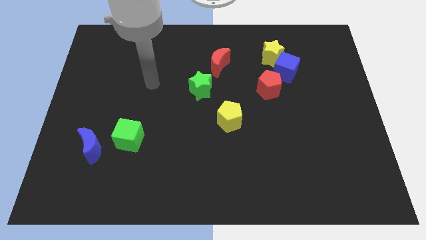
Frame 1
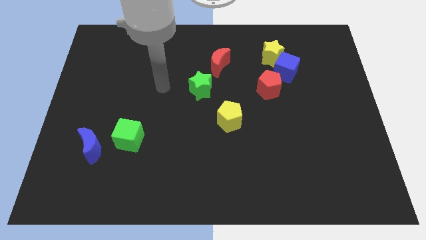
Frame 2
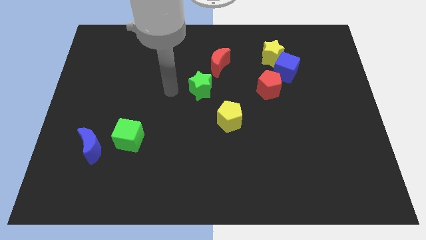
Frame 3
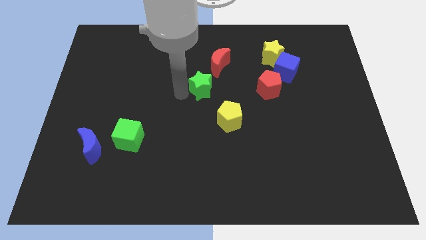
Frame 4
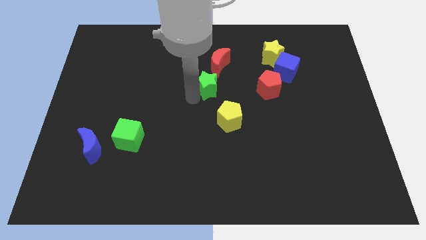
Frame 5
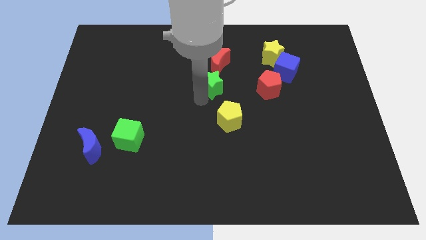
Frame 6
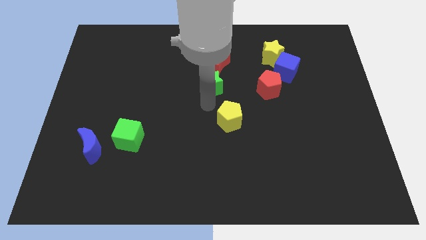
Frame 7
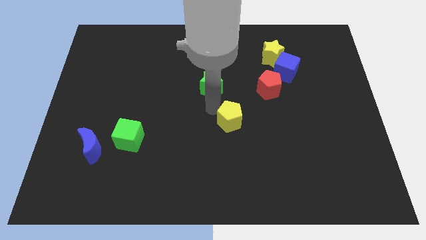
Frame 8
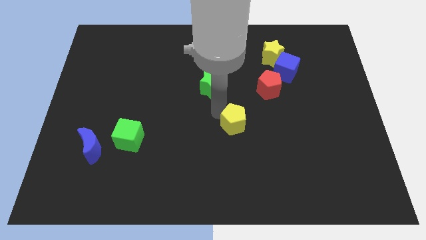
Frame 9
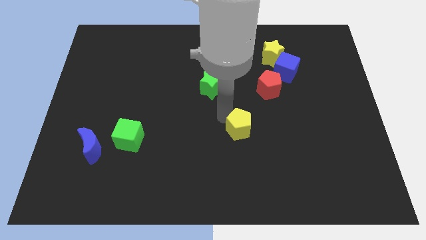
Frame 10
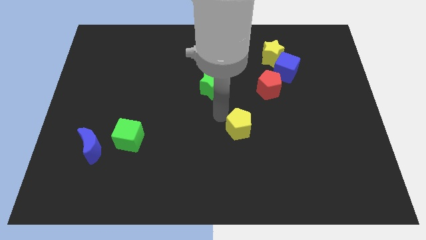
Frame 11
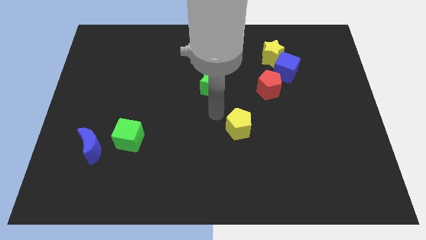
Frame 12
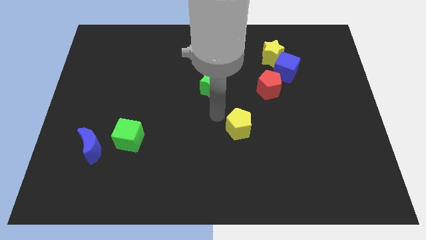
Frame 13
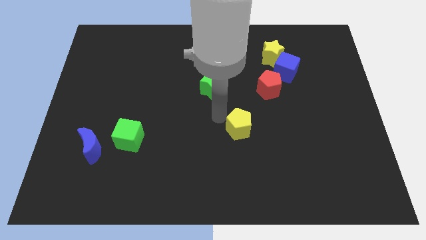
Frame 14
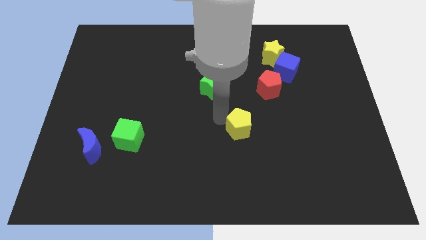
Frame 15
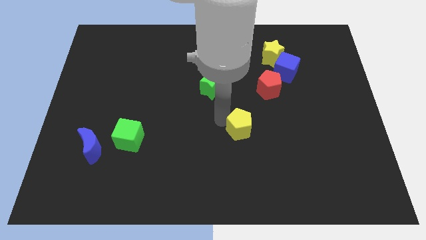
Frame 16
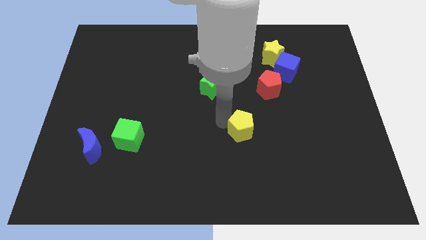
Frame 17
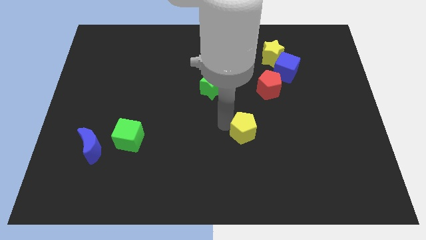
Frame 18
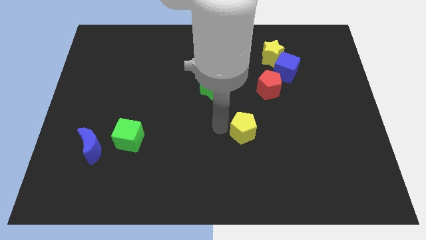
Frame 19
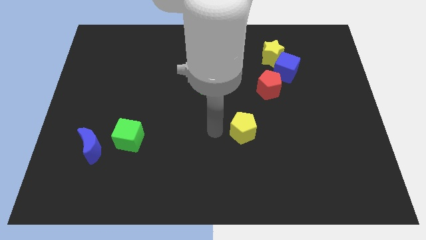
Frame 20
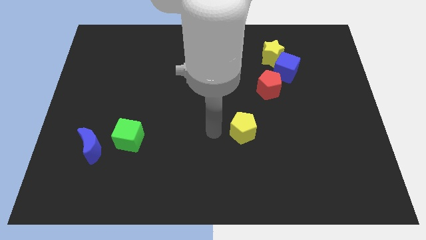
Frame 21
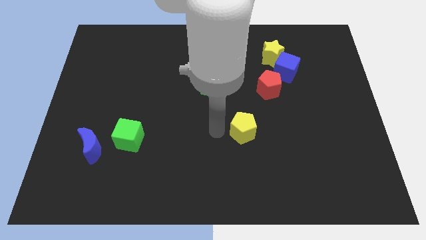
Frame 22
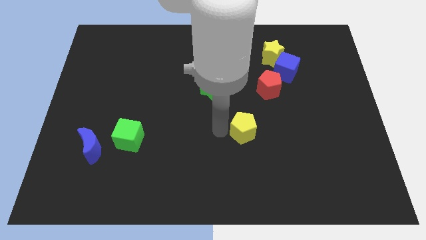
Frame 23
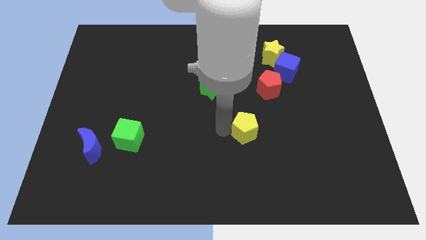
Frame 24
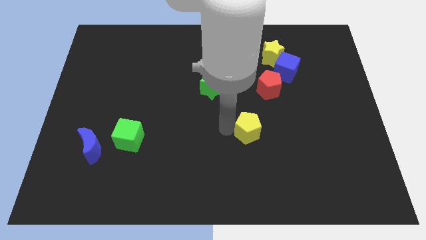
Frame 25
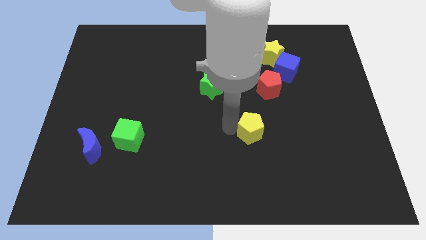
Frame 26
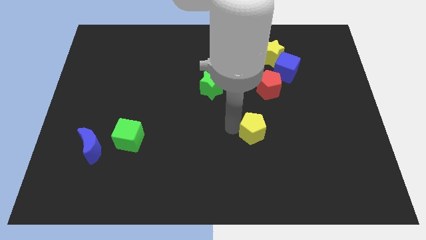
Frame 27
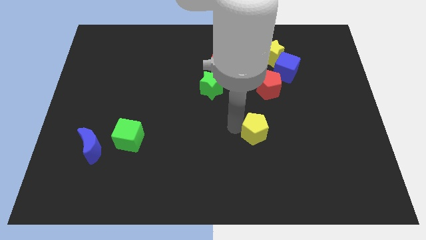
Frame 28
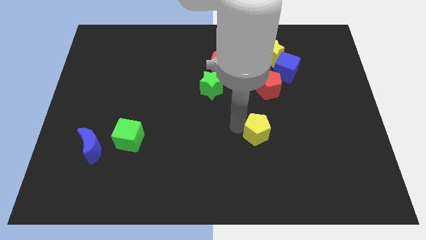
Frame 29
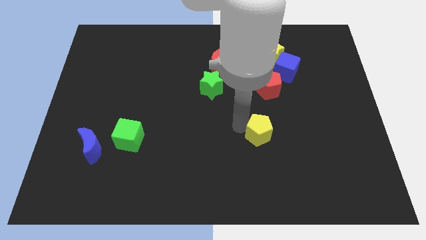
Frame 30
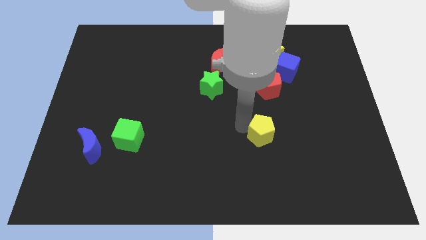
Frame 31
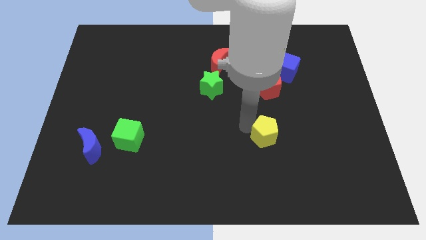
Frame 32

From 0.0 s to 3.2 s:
move the yellow pentagon a bit to the right

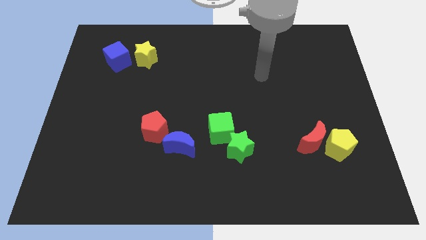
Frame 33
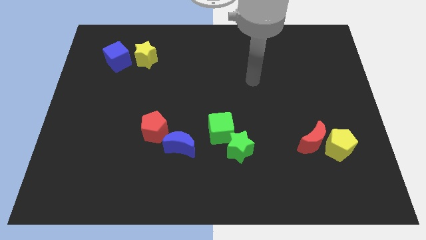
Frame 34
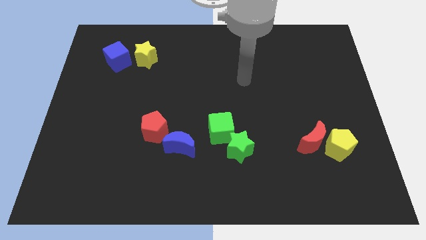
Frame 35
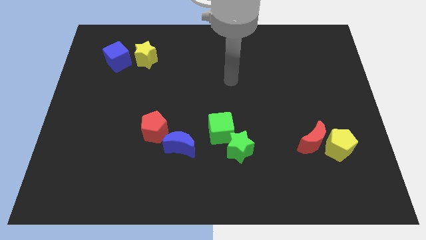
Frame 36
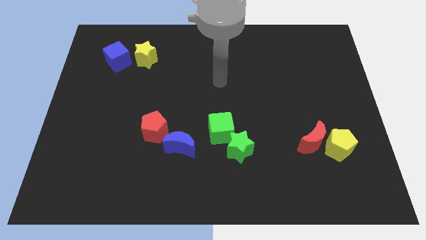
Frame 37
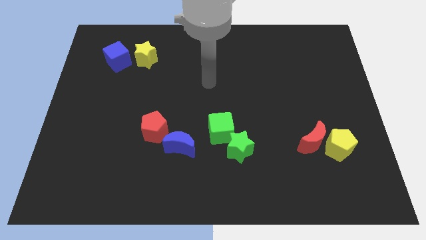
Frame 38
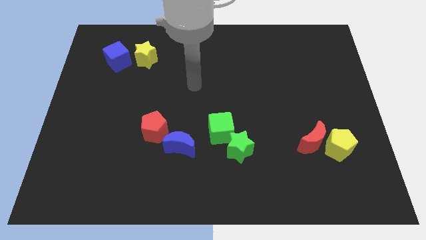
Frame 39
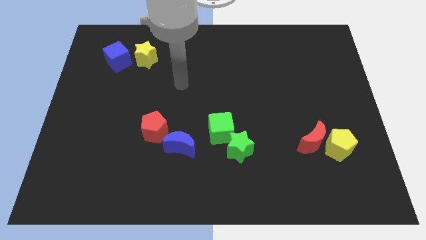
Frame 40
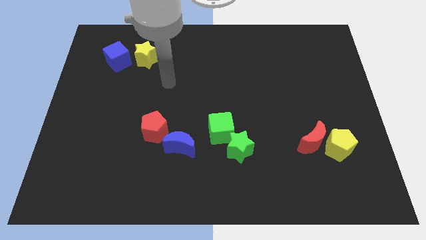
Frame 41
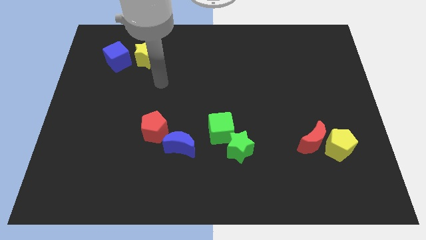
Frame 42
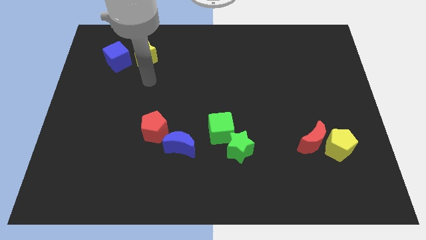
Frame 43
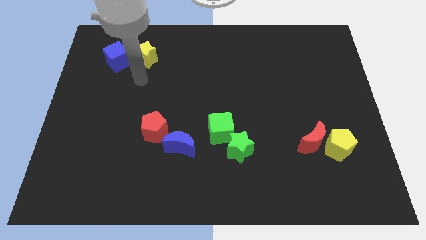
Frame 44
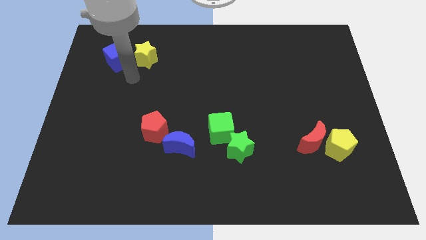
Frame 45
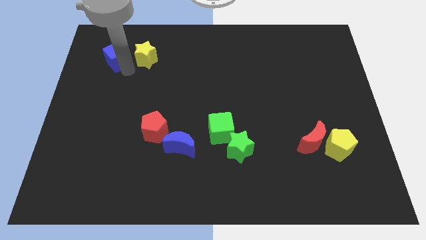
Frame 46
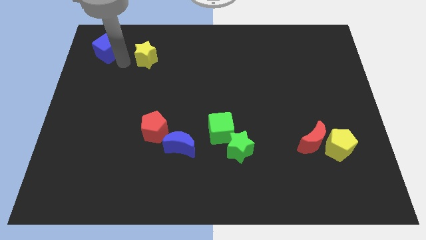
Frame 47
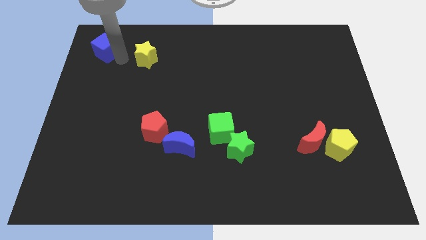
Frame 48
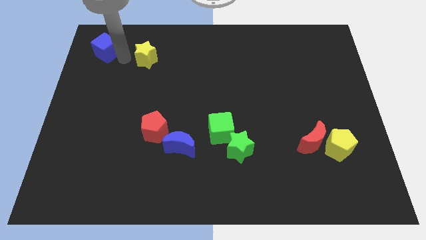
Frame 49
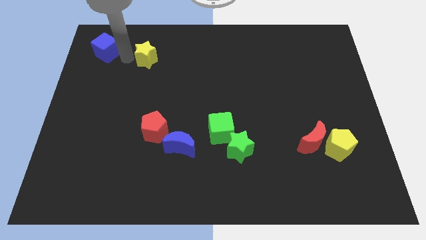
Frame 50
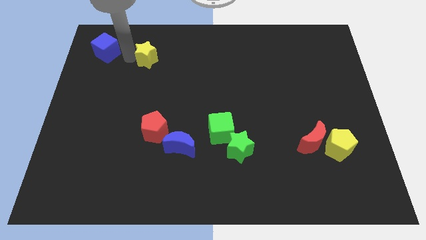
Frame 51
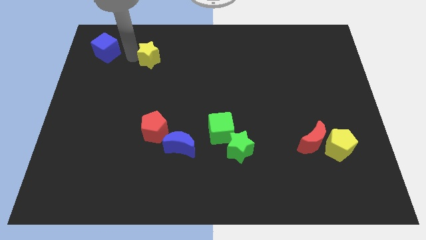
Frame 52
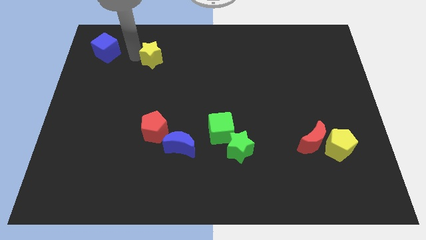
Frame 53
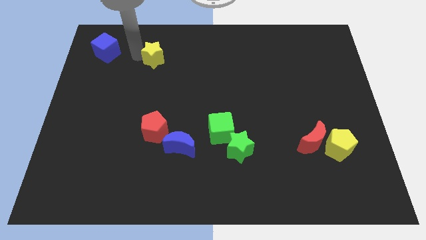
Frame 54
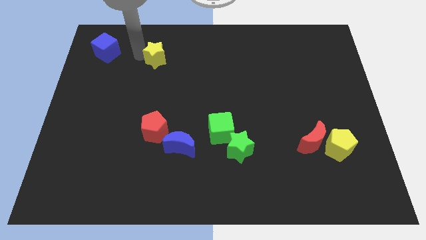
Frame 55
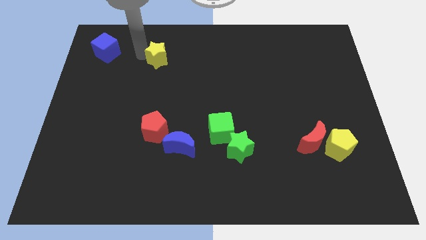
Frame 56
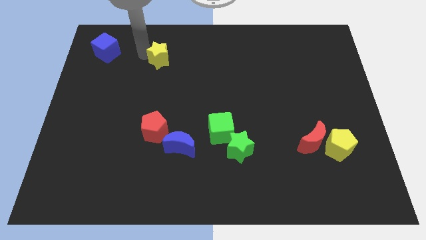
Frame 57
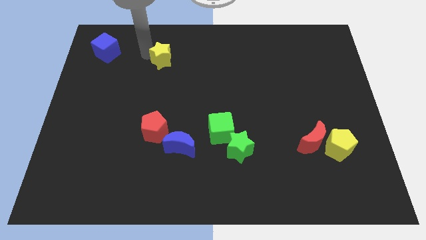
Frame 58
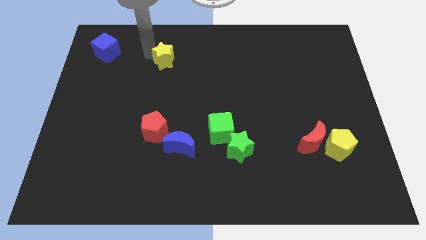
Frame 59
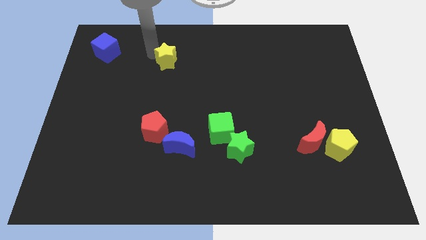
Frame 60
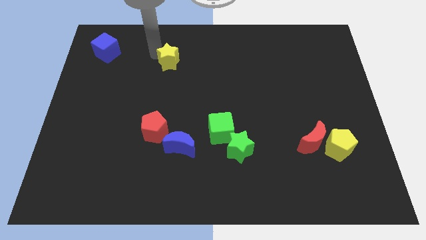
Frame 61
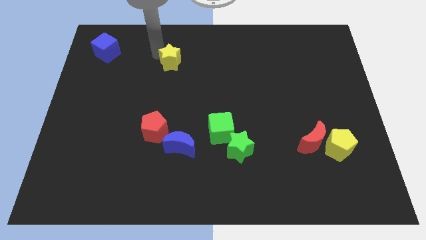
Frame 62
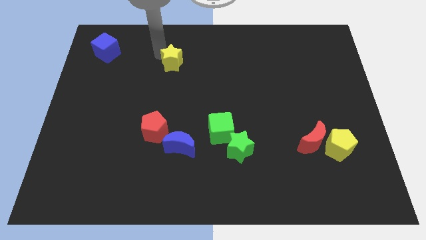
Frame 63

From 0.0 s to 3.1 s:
slide the yellow star somewhat right

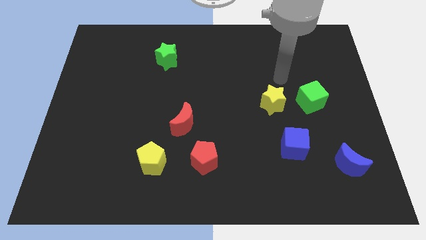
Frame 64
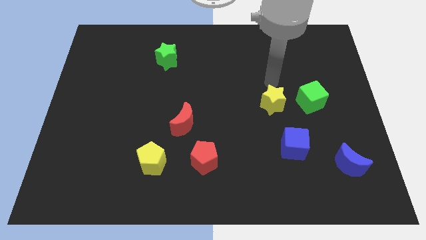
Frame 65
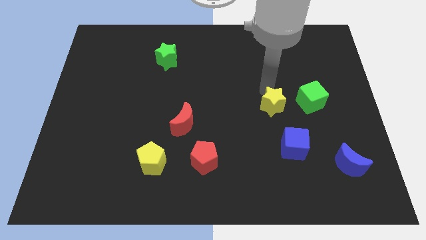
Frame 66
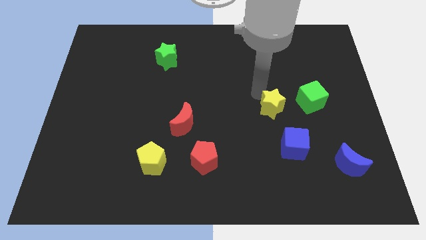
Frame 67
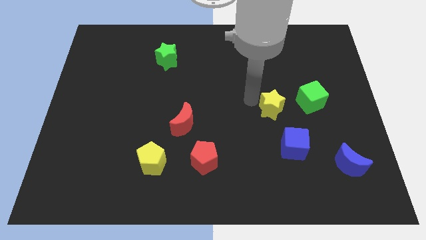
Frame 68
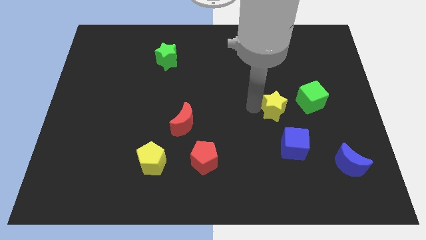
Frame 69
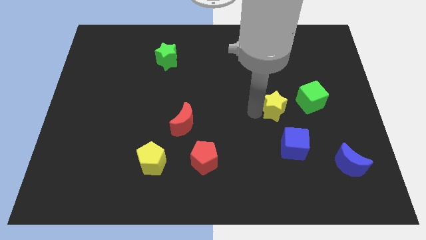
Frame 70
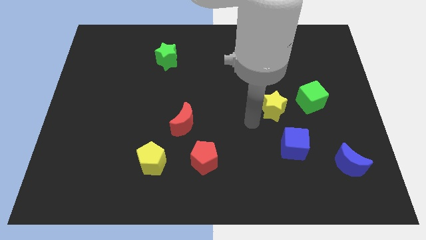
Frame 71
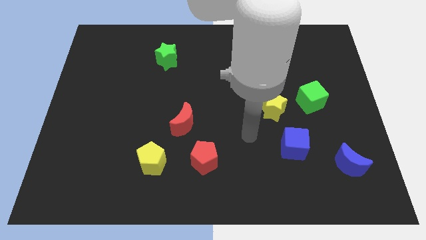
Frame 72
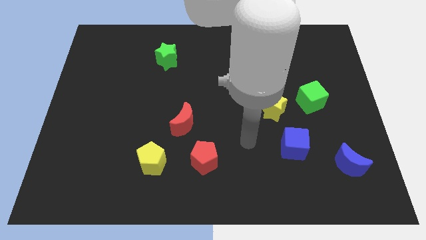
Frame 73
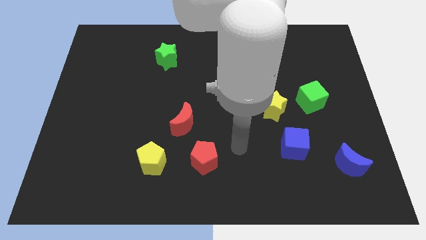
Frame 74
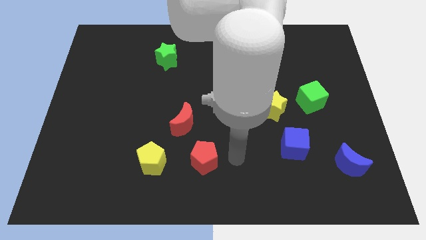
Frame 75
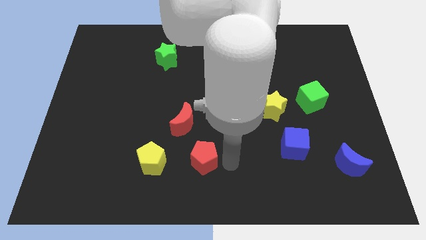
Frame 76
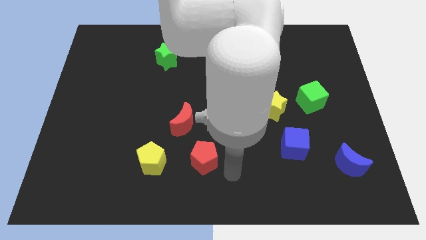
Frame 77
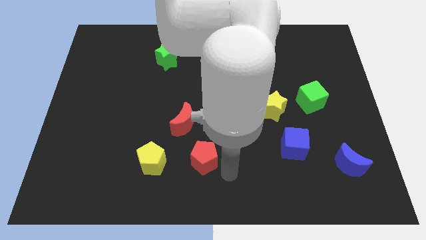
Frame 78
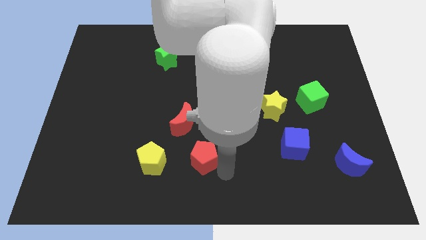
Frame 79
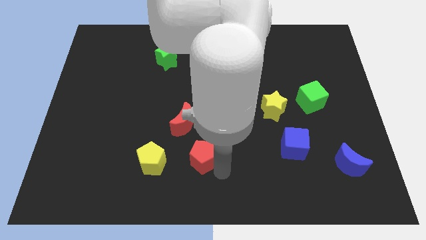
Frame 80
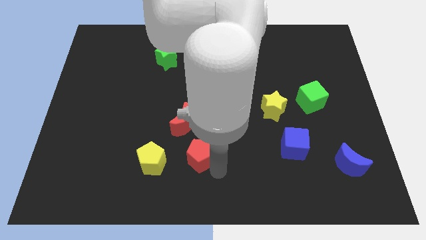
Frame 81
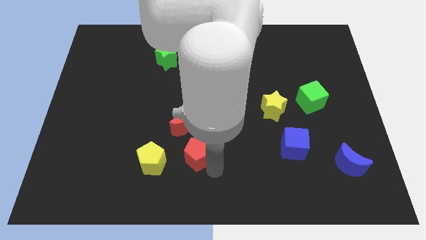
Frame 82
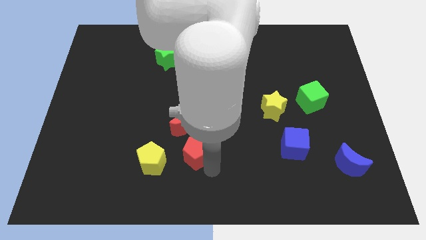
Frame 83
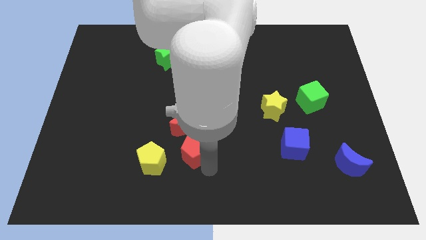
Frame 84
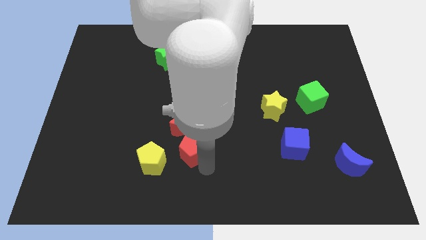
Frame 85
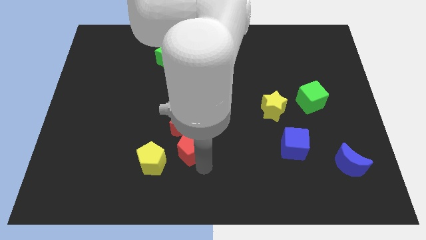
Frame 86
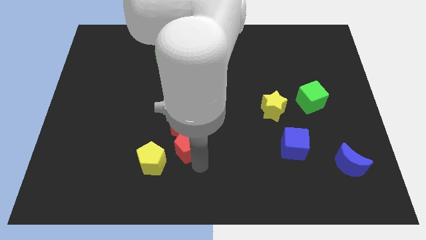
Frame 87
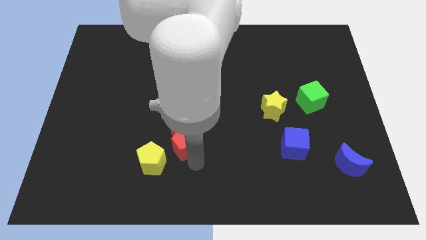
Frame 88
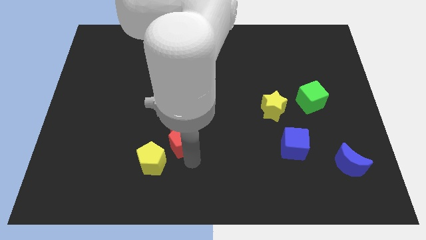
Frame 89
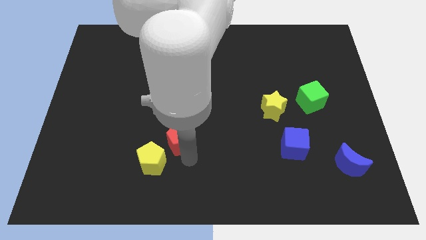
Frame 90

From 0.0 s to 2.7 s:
move the red pentagon somewhat upwards and then to the left
